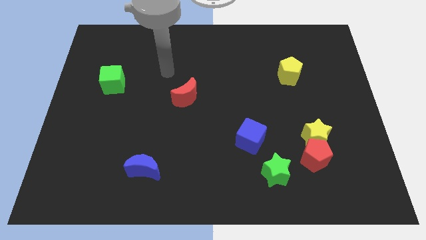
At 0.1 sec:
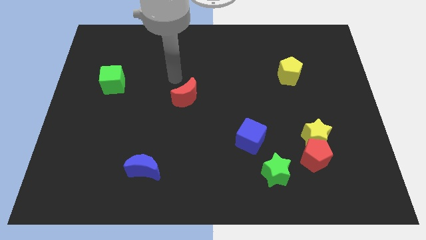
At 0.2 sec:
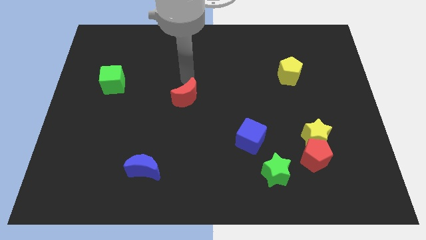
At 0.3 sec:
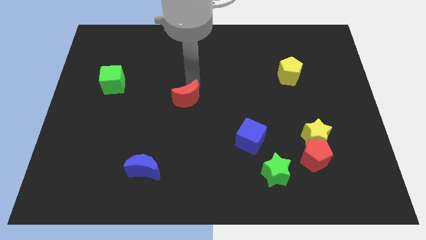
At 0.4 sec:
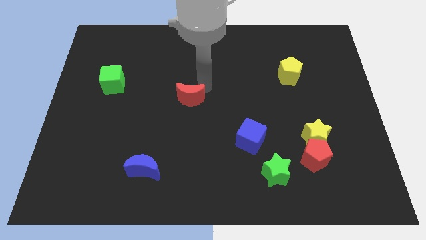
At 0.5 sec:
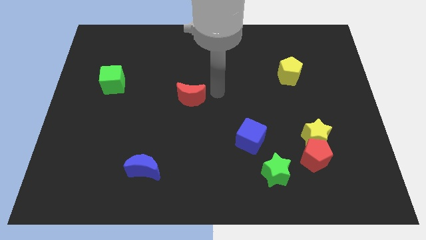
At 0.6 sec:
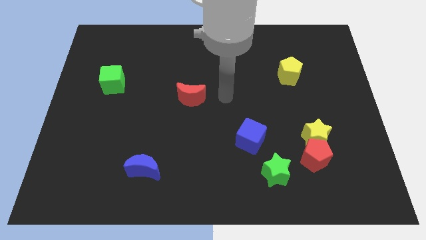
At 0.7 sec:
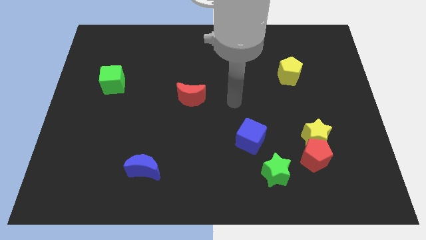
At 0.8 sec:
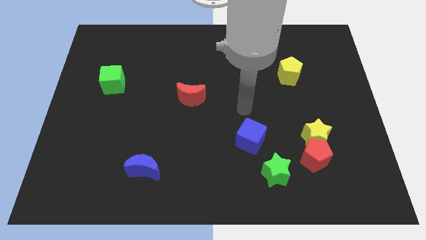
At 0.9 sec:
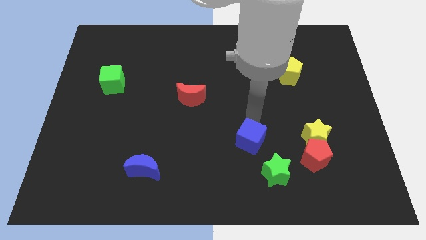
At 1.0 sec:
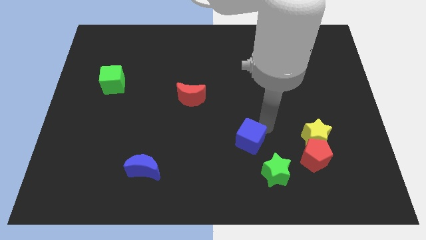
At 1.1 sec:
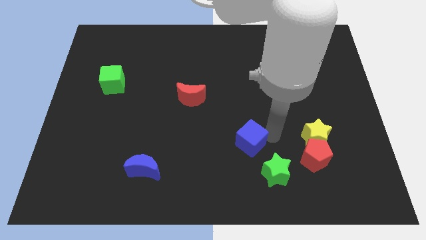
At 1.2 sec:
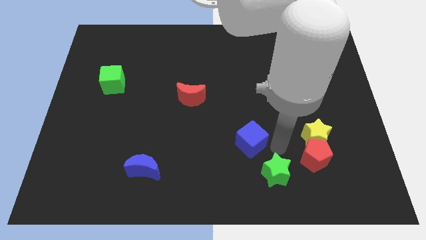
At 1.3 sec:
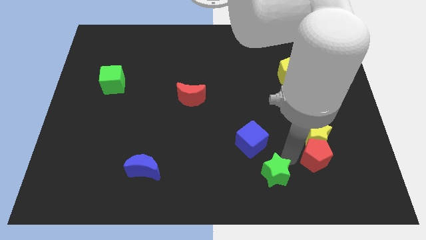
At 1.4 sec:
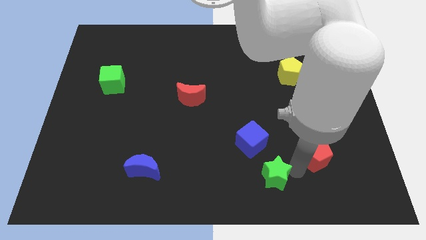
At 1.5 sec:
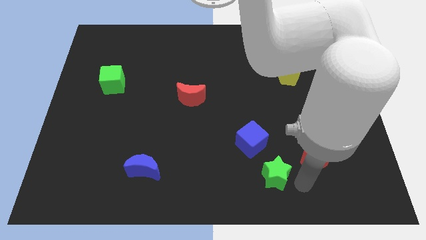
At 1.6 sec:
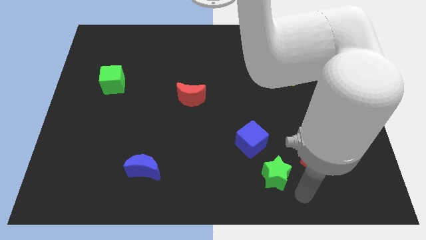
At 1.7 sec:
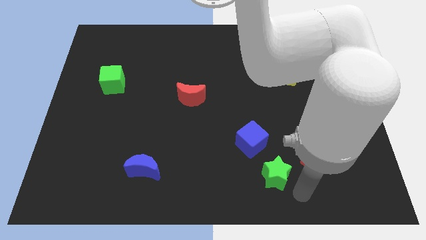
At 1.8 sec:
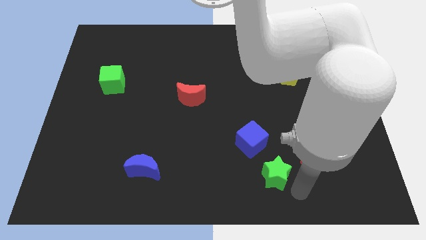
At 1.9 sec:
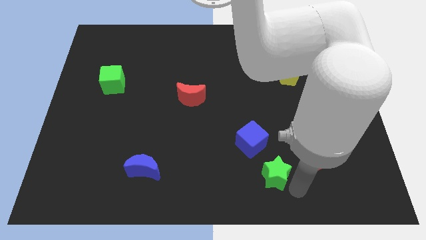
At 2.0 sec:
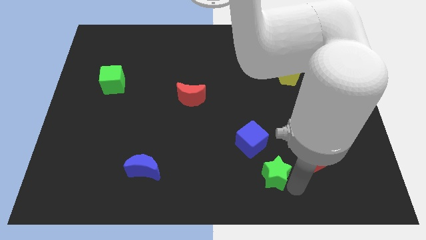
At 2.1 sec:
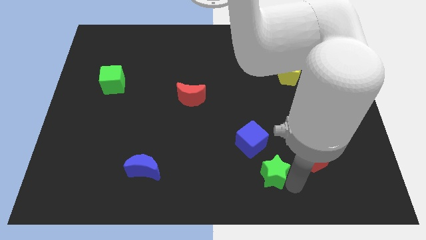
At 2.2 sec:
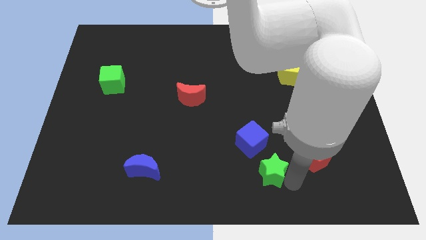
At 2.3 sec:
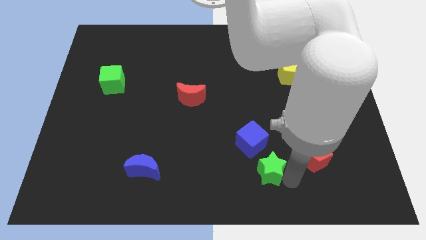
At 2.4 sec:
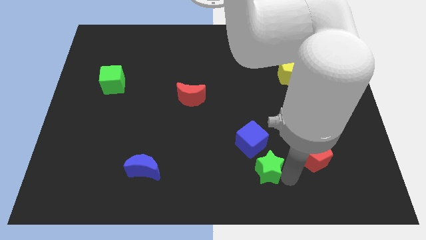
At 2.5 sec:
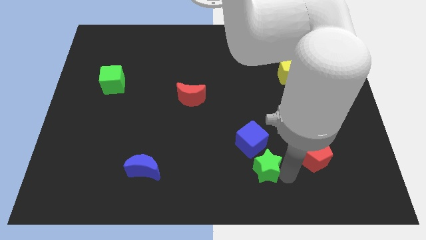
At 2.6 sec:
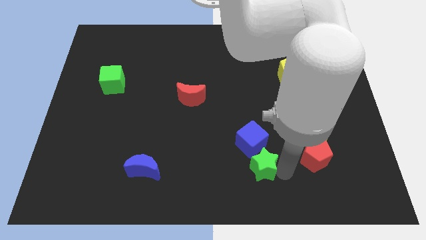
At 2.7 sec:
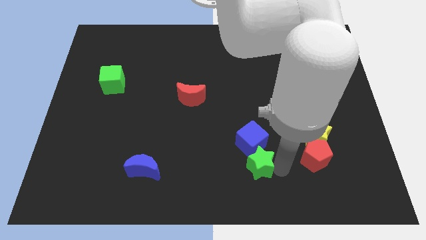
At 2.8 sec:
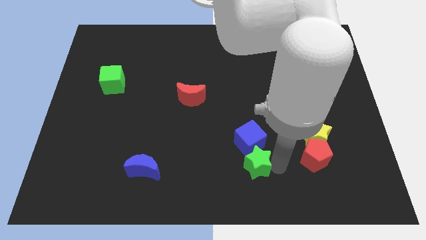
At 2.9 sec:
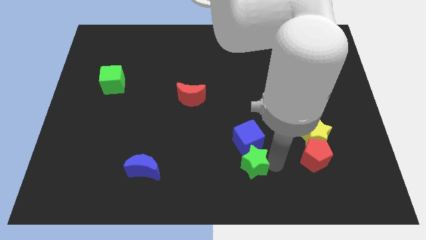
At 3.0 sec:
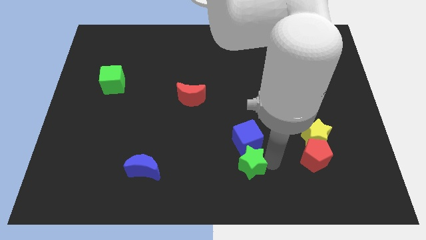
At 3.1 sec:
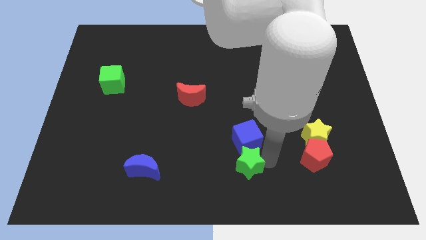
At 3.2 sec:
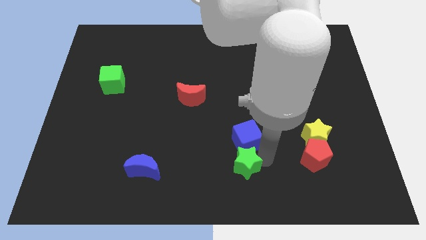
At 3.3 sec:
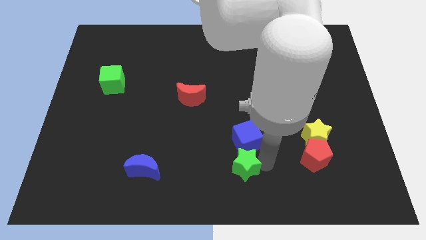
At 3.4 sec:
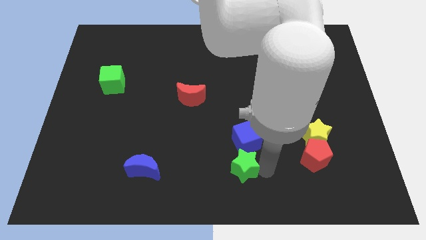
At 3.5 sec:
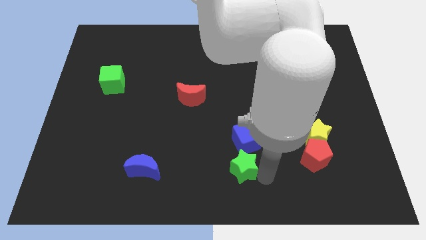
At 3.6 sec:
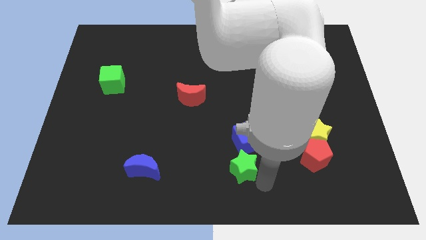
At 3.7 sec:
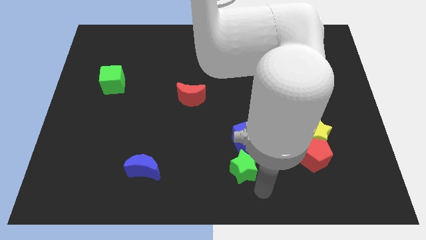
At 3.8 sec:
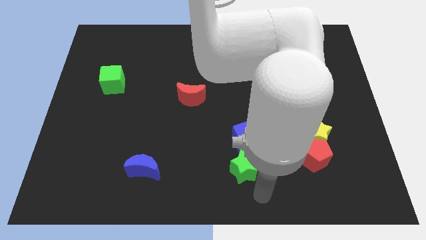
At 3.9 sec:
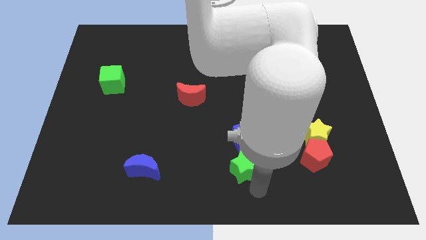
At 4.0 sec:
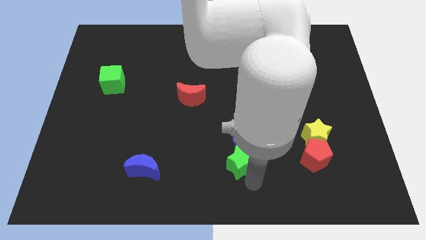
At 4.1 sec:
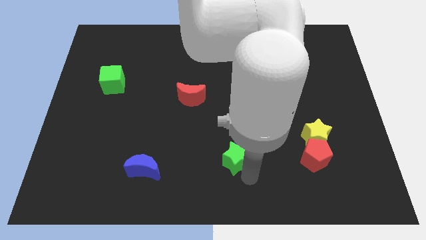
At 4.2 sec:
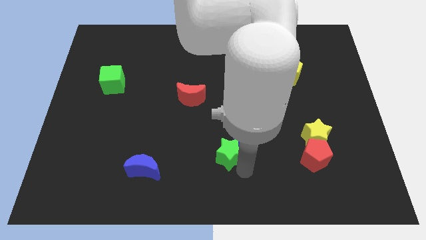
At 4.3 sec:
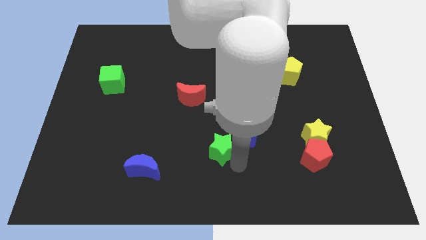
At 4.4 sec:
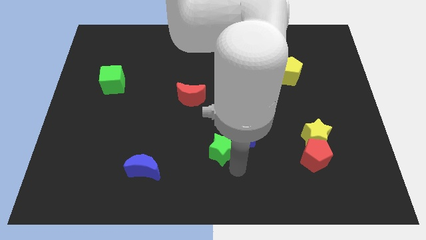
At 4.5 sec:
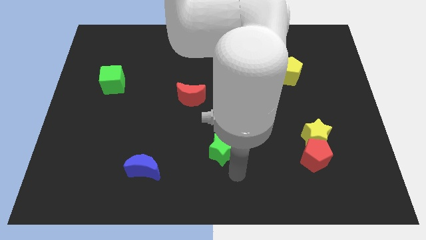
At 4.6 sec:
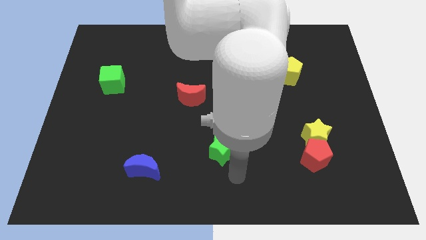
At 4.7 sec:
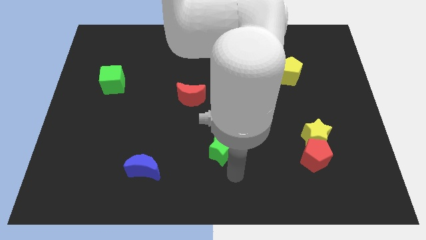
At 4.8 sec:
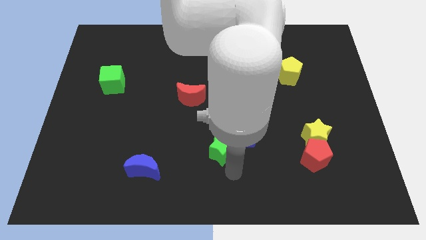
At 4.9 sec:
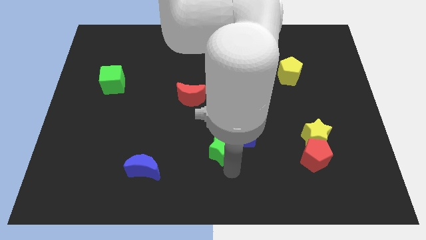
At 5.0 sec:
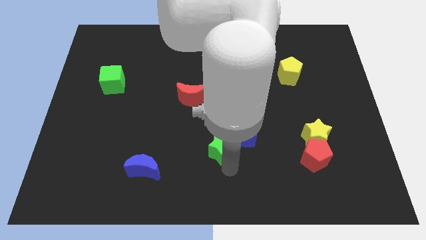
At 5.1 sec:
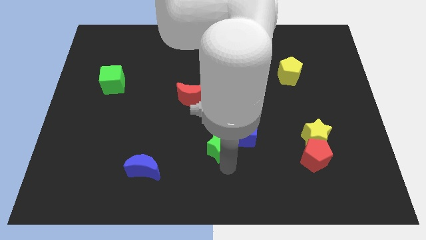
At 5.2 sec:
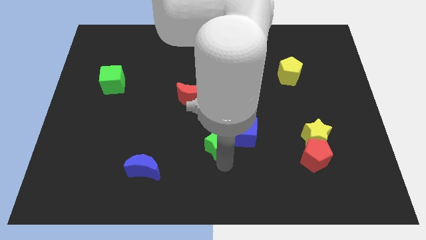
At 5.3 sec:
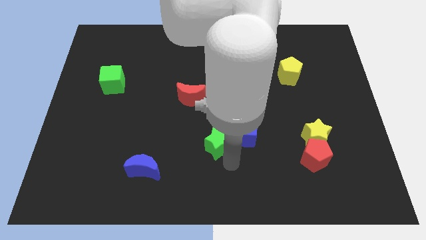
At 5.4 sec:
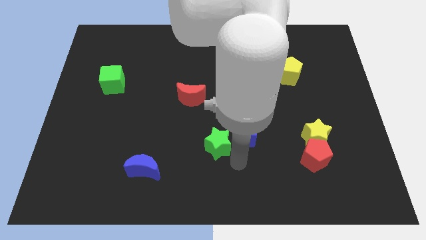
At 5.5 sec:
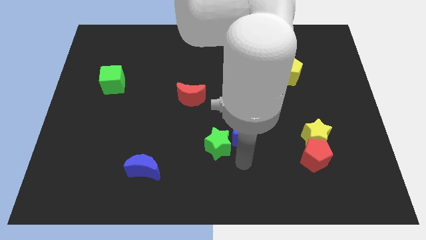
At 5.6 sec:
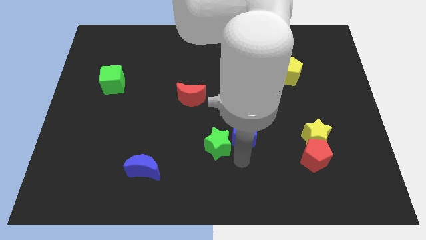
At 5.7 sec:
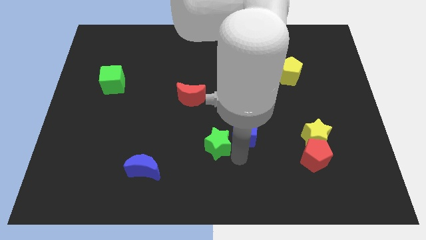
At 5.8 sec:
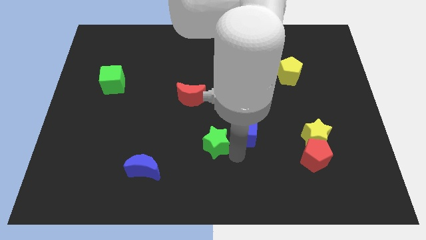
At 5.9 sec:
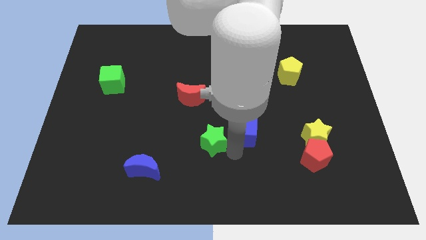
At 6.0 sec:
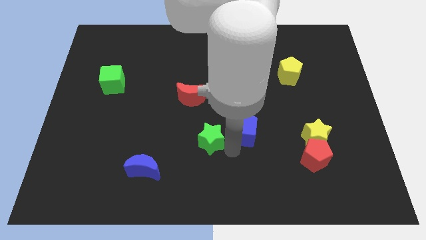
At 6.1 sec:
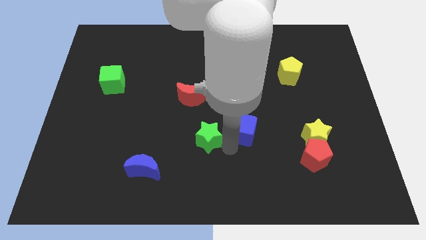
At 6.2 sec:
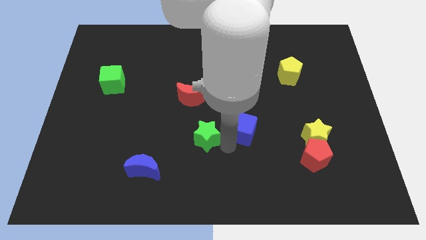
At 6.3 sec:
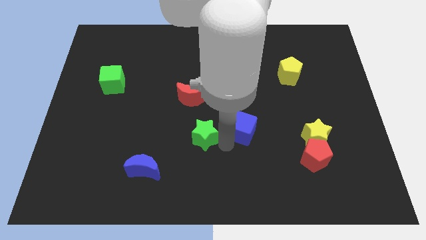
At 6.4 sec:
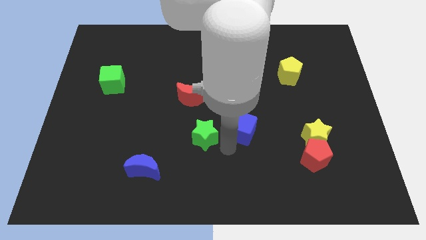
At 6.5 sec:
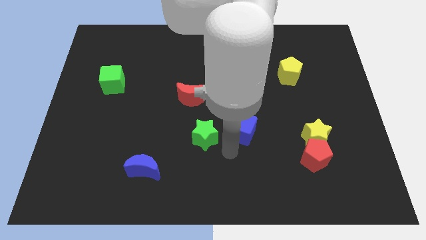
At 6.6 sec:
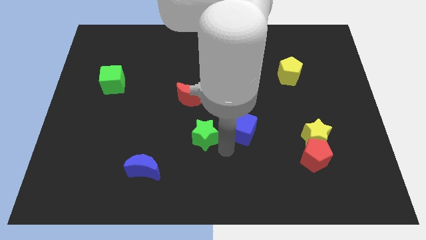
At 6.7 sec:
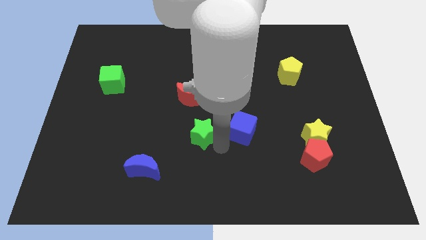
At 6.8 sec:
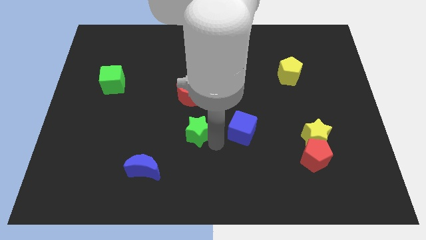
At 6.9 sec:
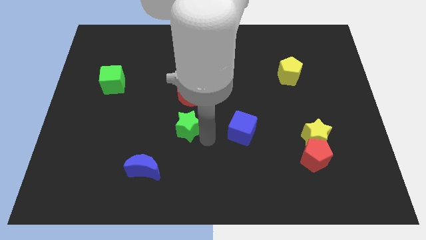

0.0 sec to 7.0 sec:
push the green star upwards and to the left diagonally

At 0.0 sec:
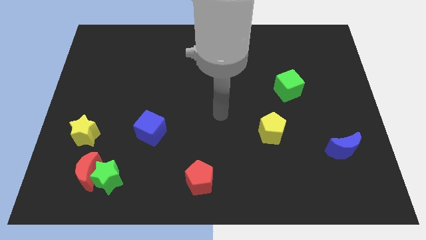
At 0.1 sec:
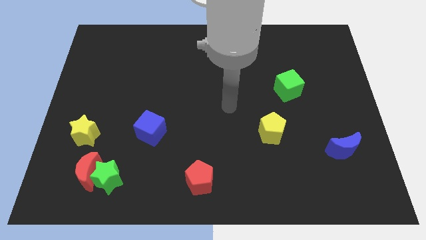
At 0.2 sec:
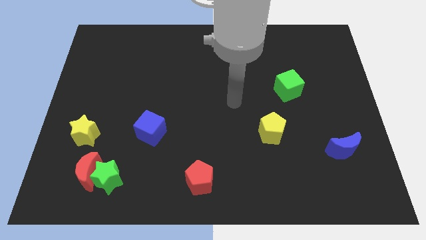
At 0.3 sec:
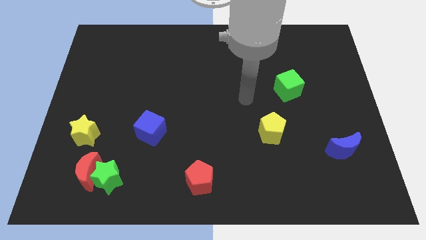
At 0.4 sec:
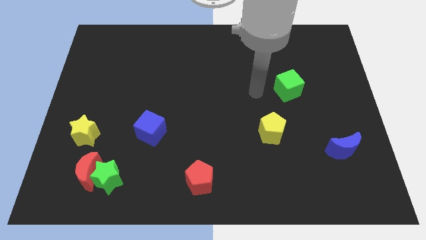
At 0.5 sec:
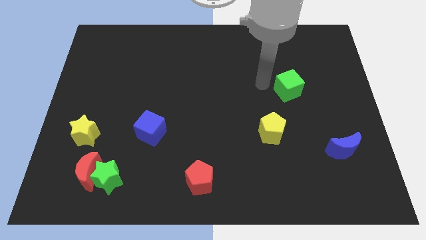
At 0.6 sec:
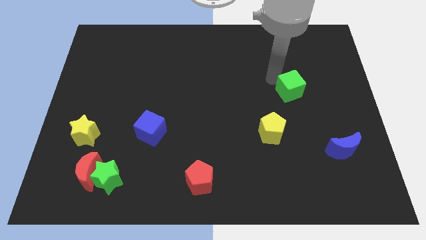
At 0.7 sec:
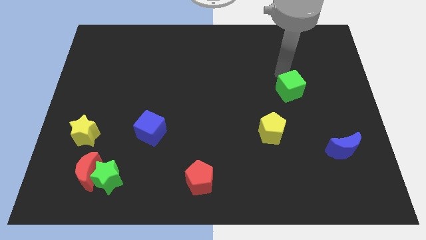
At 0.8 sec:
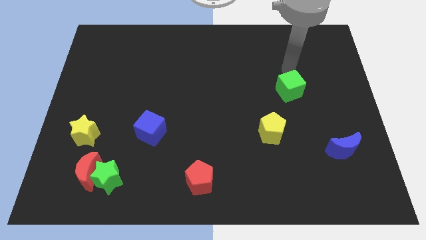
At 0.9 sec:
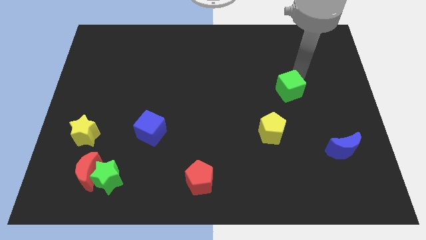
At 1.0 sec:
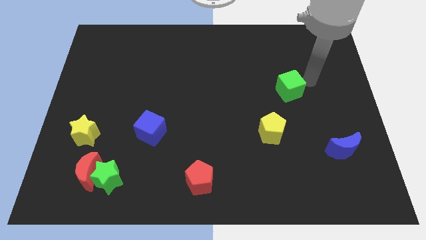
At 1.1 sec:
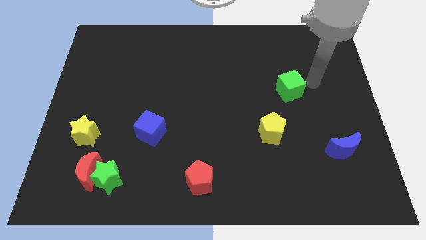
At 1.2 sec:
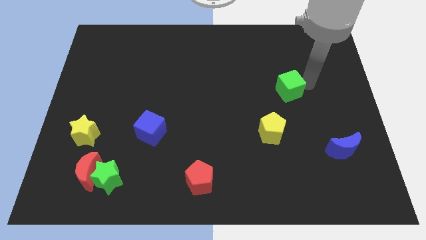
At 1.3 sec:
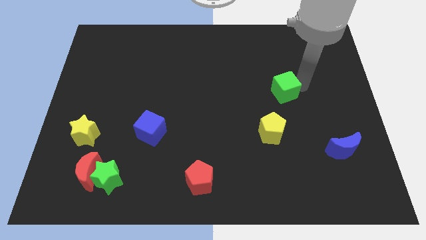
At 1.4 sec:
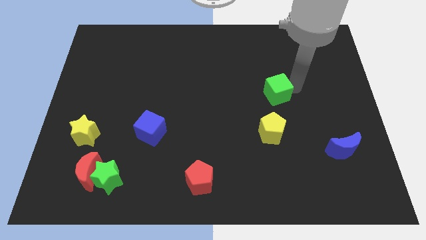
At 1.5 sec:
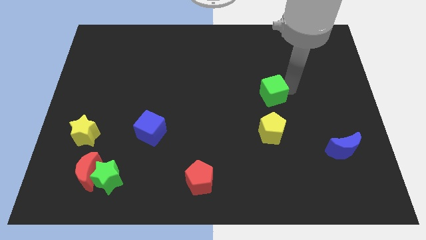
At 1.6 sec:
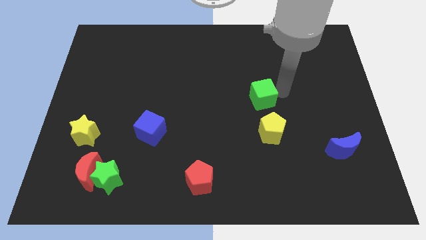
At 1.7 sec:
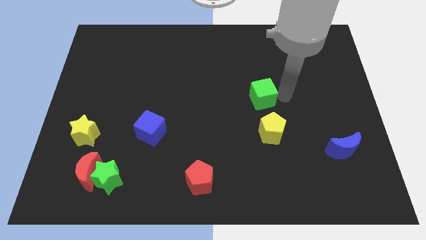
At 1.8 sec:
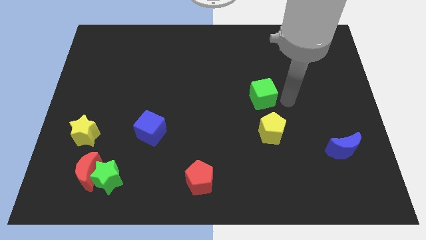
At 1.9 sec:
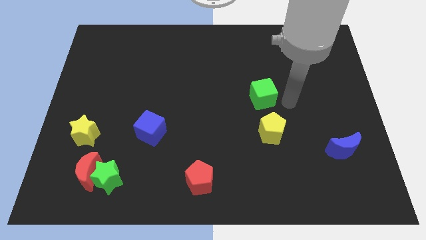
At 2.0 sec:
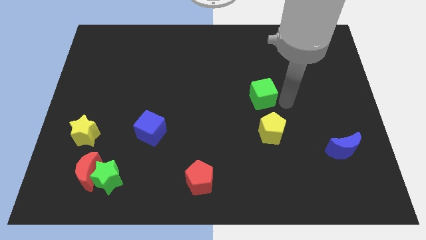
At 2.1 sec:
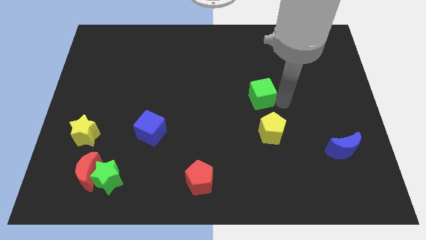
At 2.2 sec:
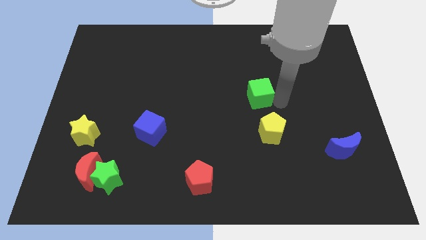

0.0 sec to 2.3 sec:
slightly slide the green cube to the left
